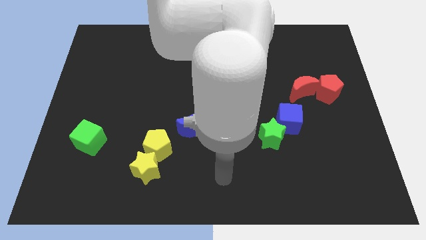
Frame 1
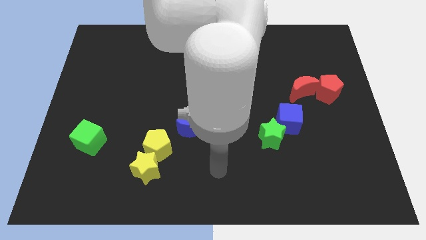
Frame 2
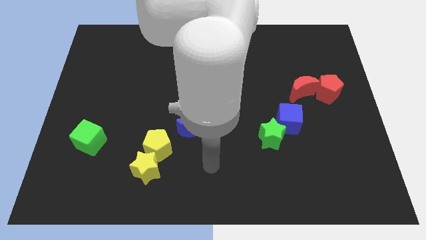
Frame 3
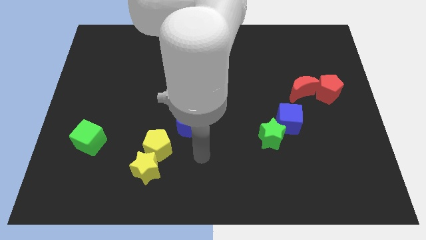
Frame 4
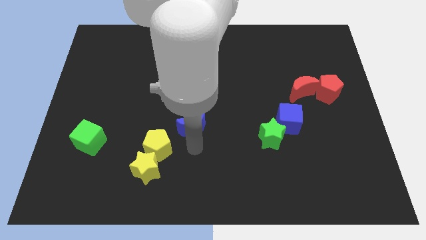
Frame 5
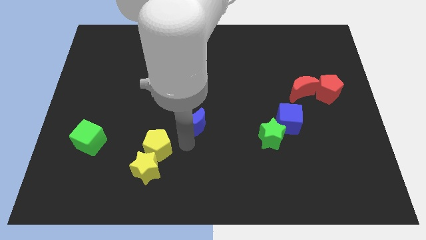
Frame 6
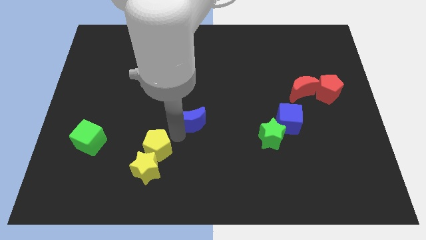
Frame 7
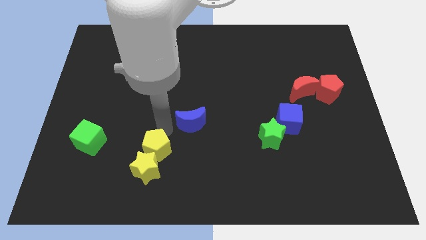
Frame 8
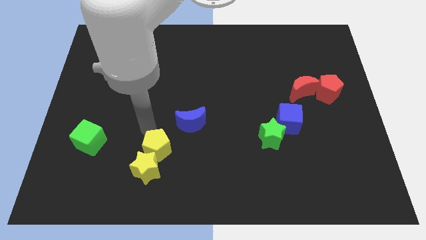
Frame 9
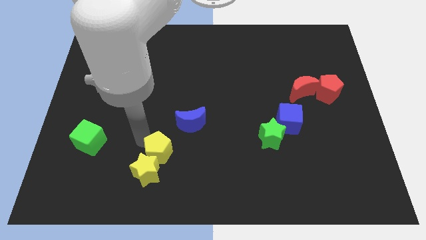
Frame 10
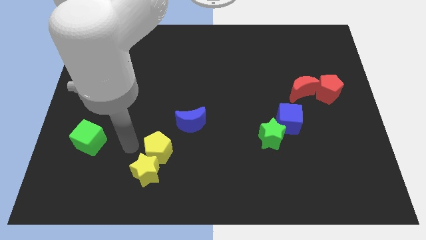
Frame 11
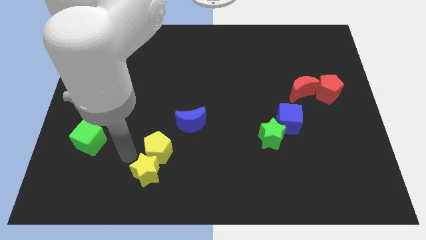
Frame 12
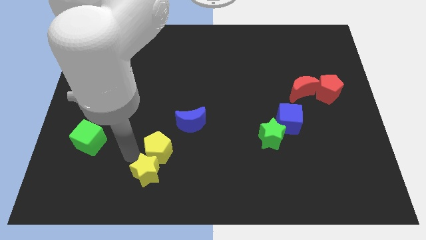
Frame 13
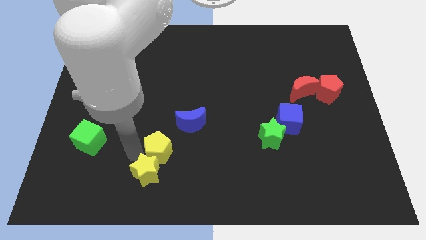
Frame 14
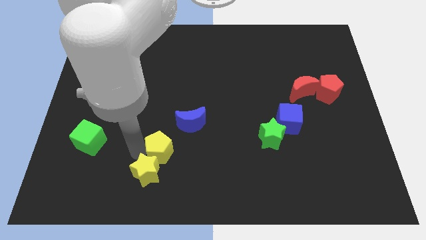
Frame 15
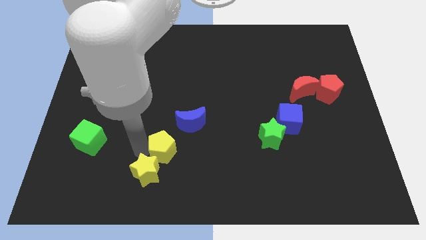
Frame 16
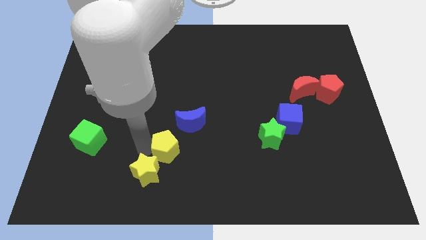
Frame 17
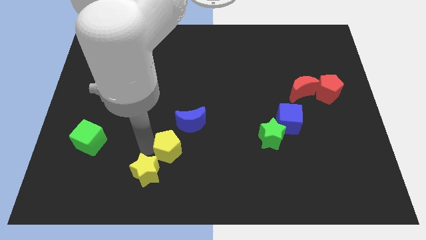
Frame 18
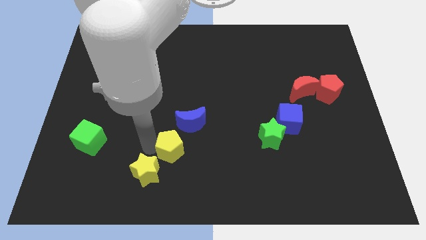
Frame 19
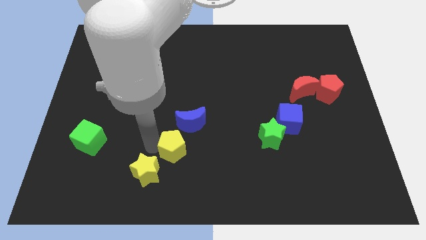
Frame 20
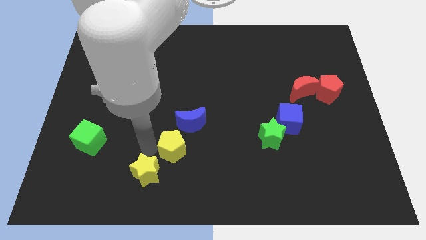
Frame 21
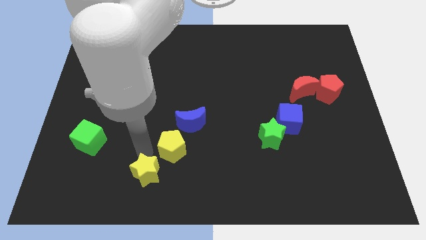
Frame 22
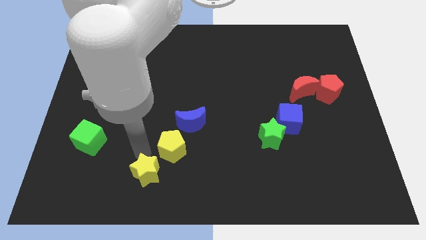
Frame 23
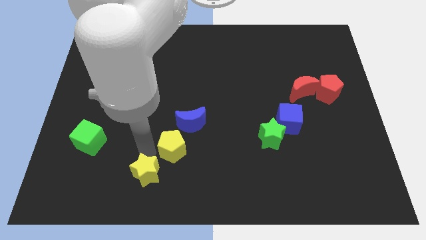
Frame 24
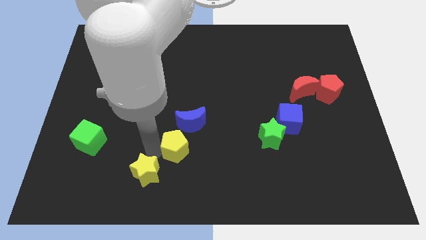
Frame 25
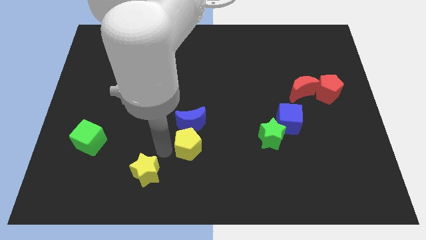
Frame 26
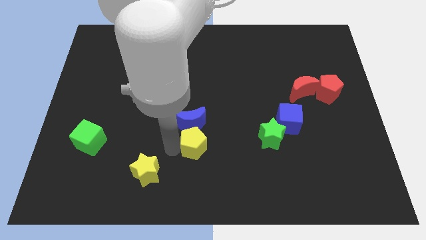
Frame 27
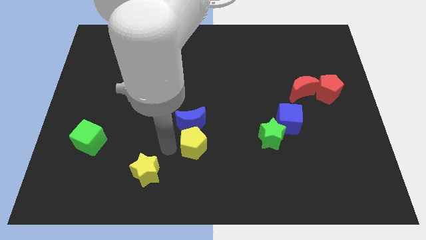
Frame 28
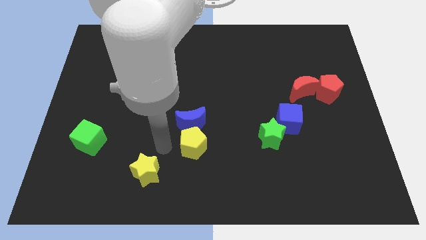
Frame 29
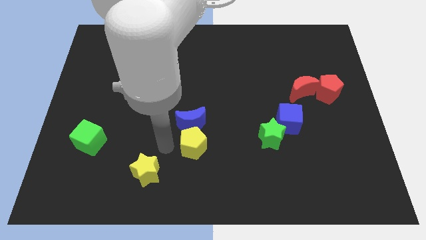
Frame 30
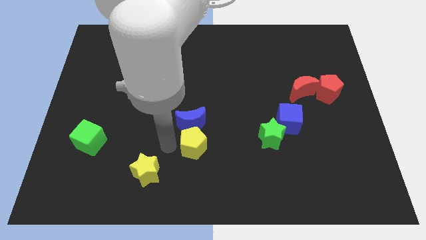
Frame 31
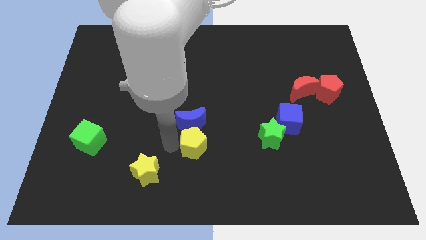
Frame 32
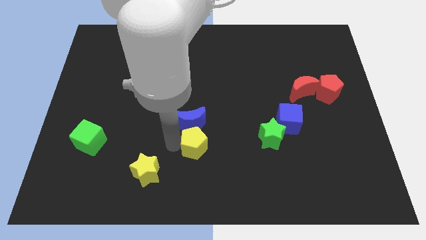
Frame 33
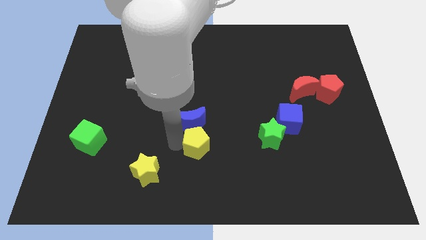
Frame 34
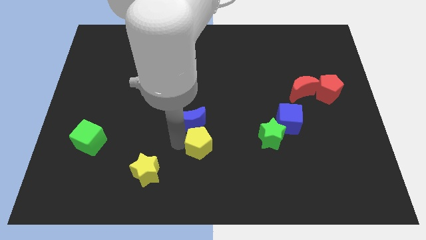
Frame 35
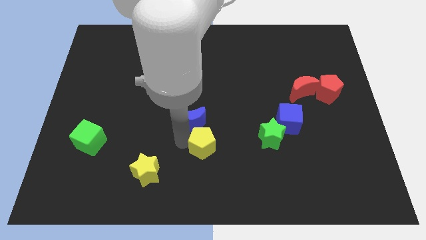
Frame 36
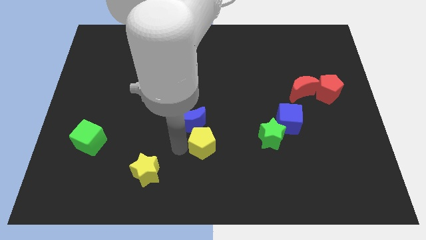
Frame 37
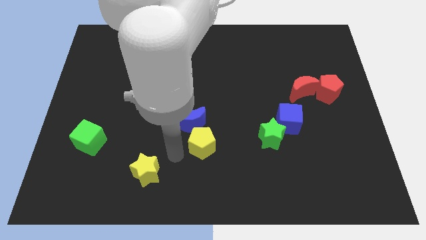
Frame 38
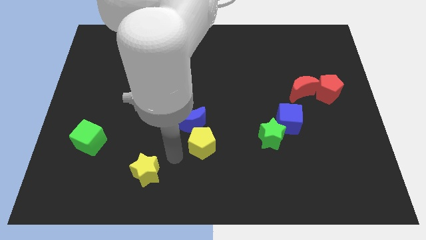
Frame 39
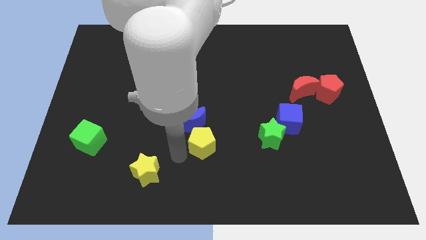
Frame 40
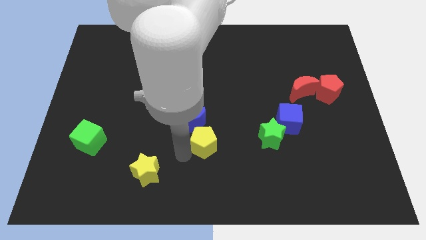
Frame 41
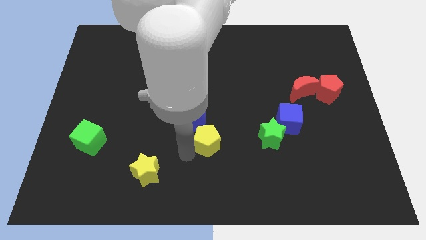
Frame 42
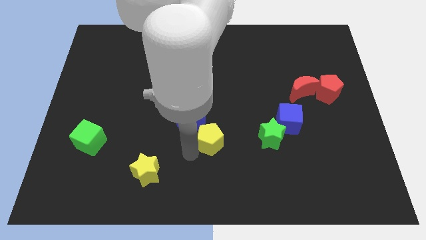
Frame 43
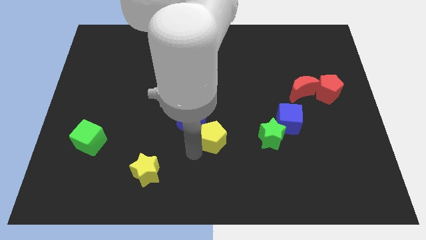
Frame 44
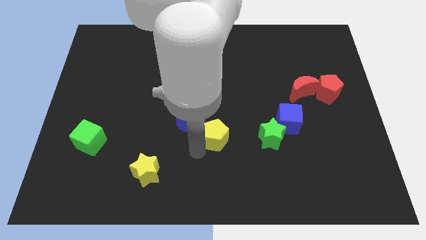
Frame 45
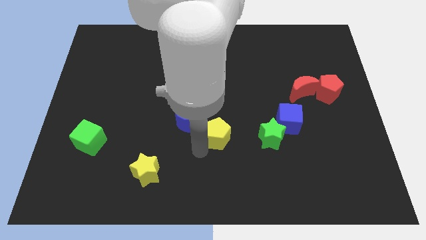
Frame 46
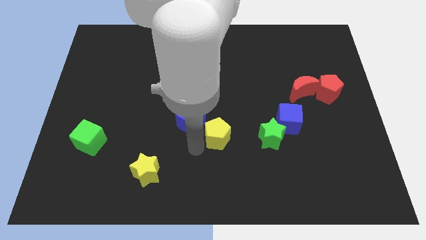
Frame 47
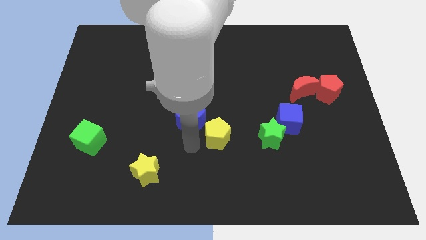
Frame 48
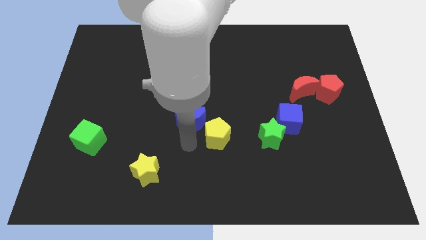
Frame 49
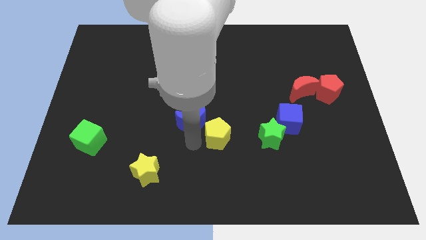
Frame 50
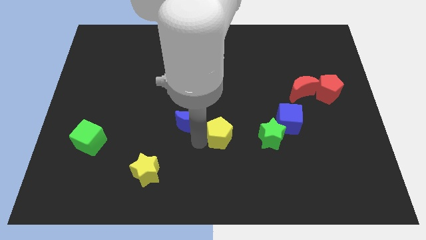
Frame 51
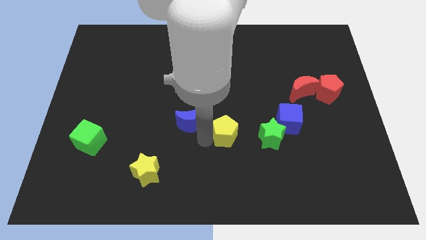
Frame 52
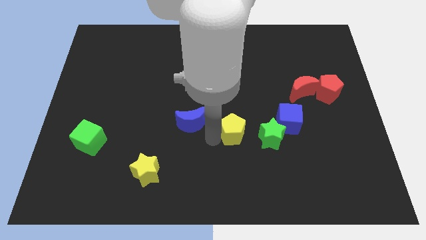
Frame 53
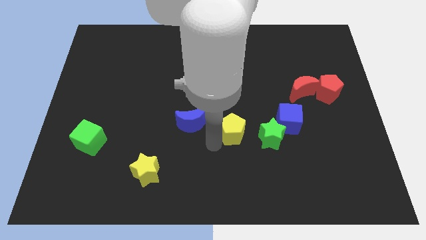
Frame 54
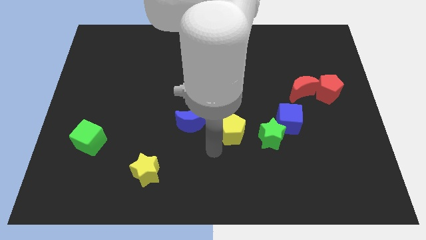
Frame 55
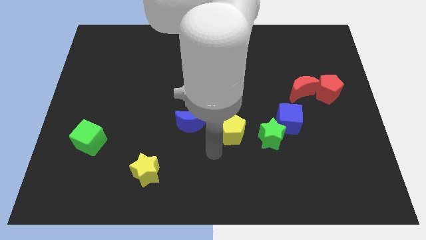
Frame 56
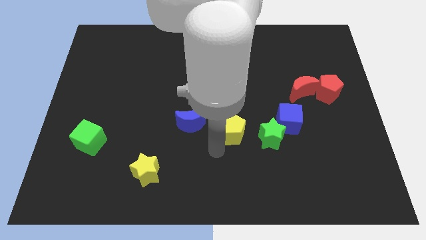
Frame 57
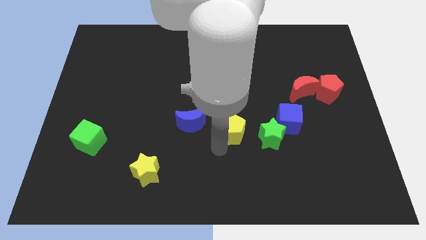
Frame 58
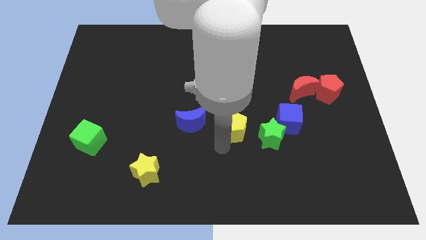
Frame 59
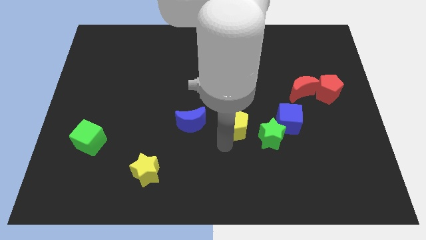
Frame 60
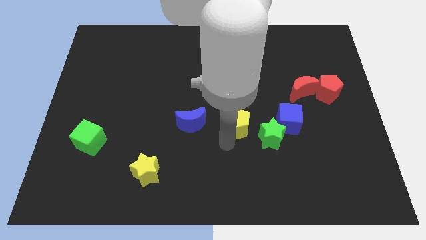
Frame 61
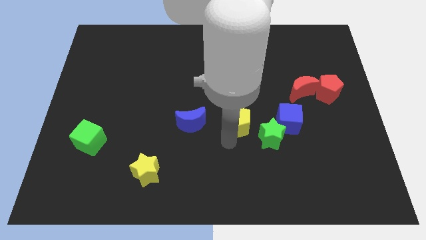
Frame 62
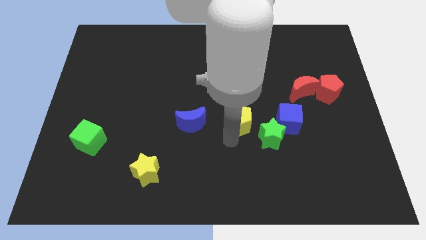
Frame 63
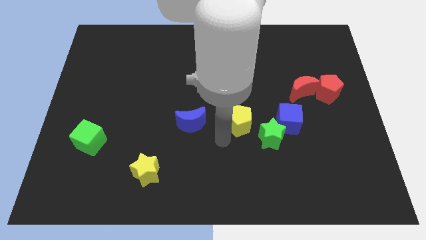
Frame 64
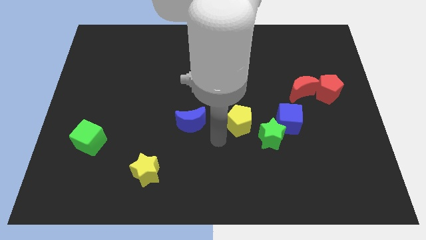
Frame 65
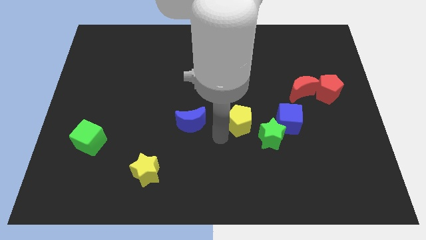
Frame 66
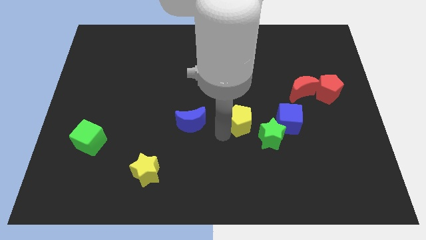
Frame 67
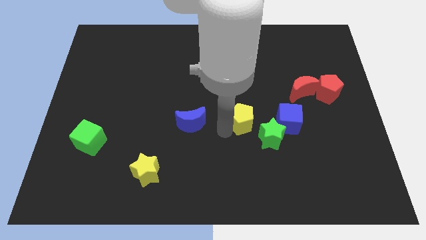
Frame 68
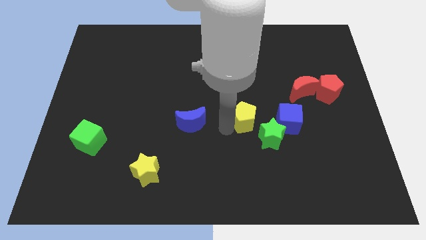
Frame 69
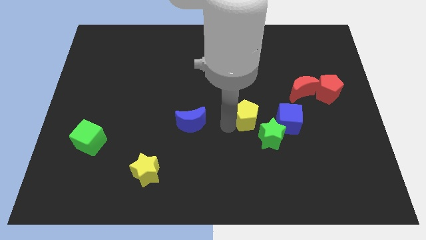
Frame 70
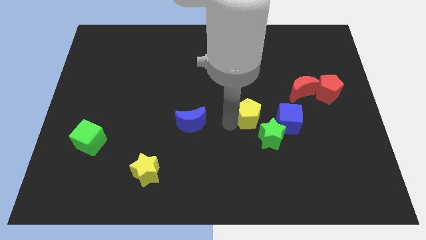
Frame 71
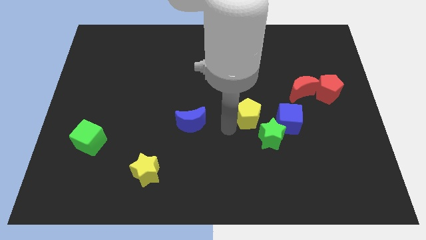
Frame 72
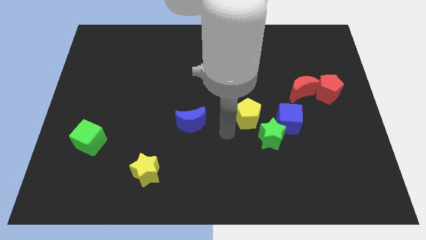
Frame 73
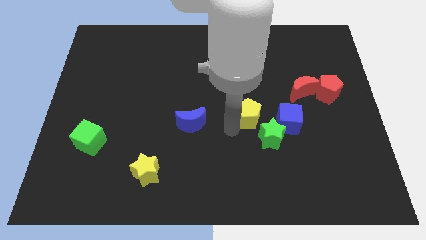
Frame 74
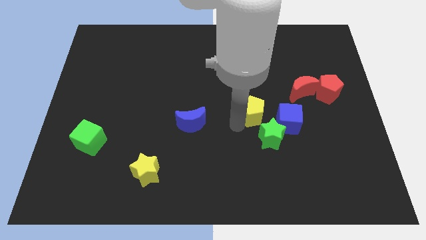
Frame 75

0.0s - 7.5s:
slide the yellow pentagon diagonally up and to the left of the blue cube
